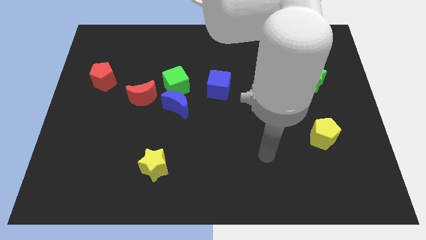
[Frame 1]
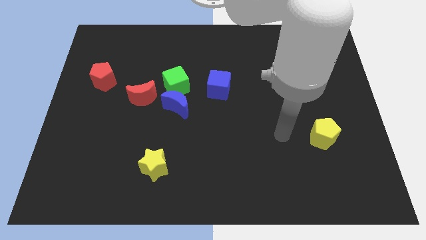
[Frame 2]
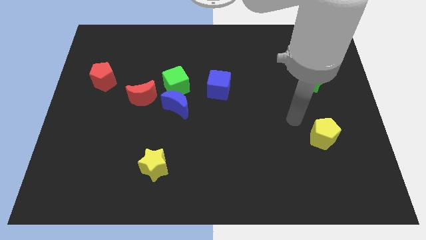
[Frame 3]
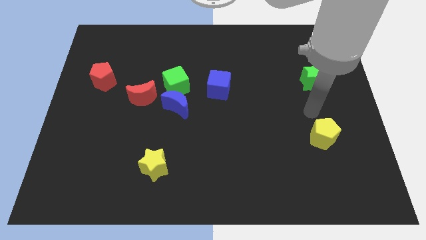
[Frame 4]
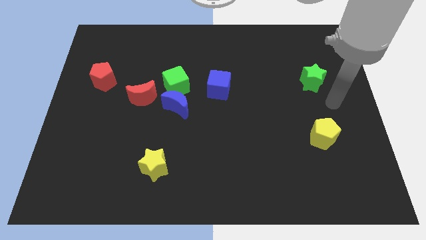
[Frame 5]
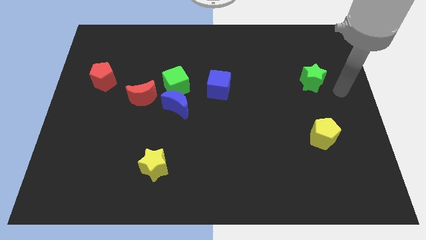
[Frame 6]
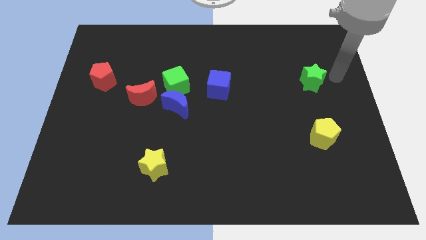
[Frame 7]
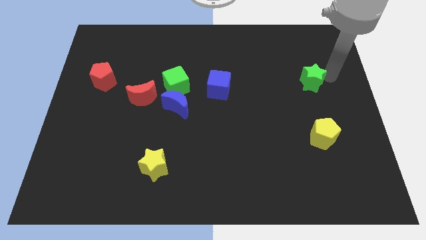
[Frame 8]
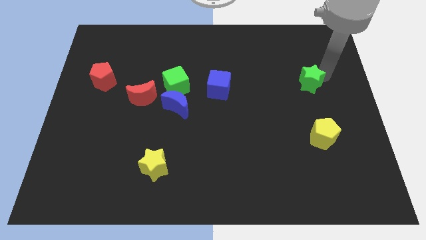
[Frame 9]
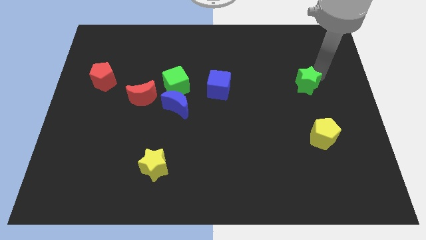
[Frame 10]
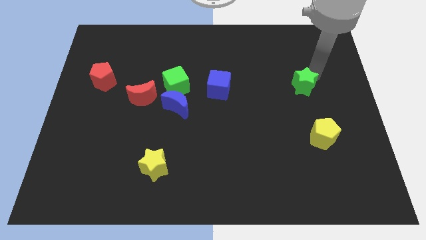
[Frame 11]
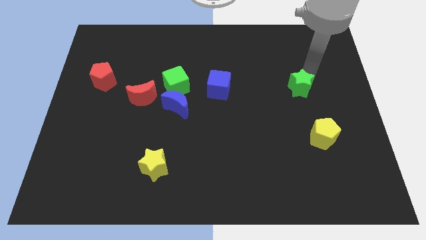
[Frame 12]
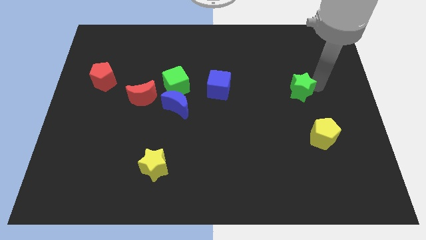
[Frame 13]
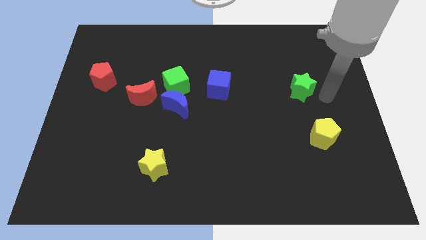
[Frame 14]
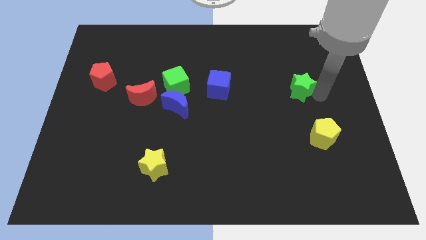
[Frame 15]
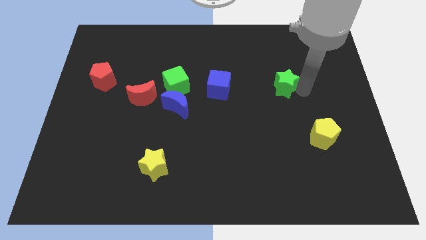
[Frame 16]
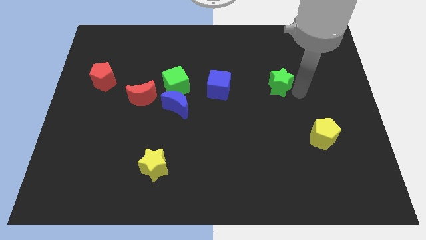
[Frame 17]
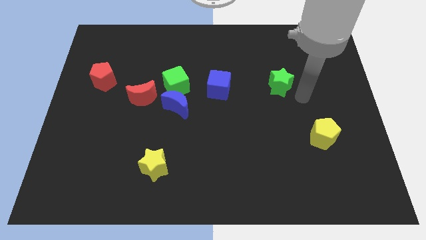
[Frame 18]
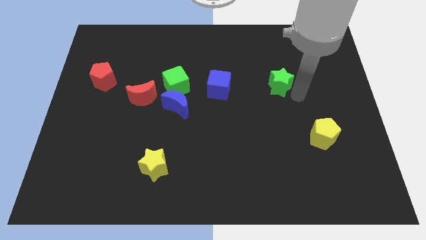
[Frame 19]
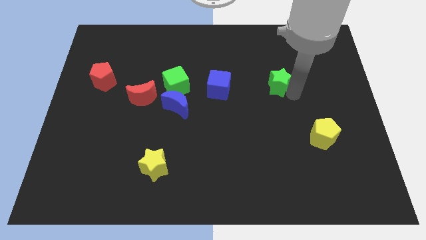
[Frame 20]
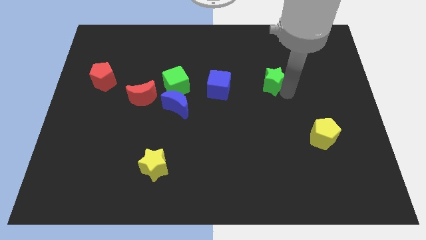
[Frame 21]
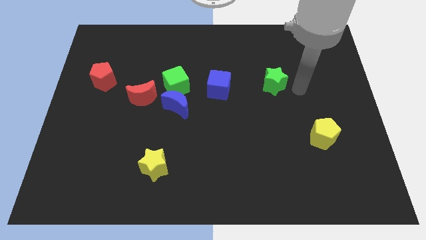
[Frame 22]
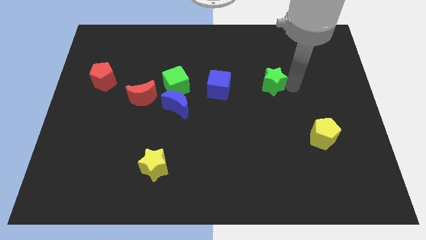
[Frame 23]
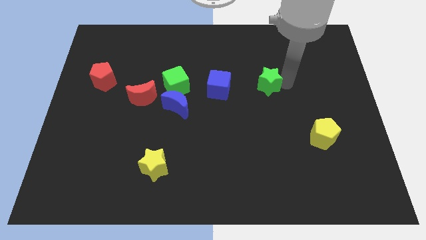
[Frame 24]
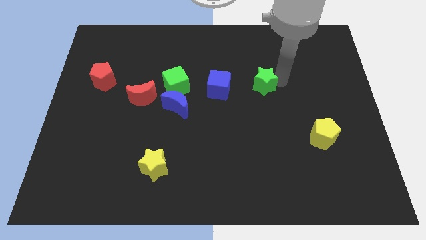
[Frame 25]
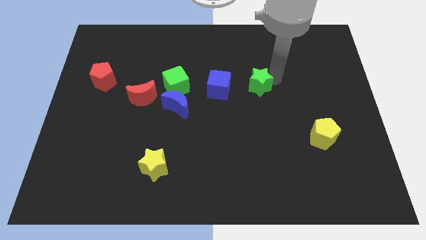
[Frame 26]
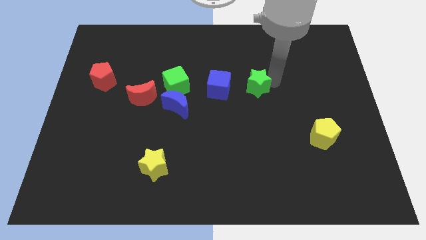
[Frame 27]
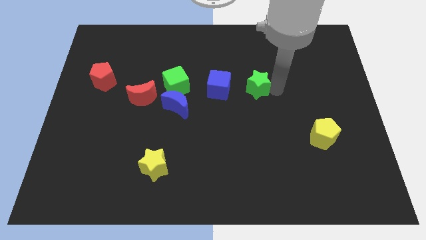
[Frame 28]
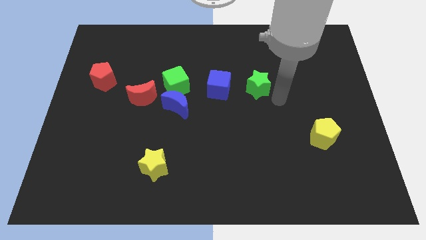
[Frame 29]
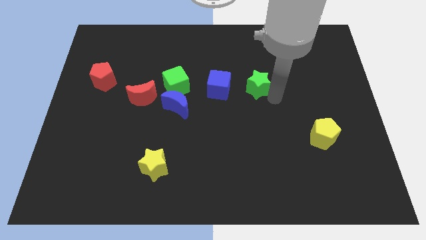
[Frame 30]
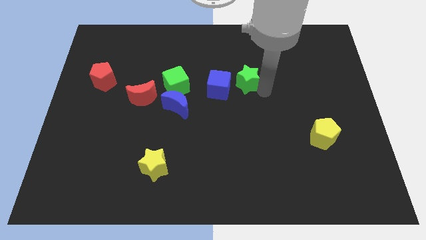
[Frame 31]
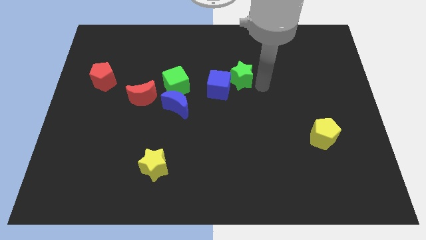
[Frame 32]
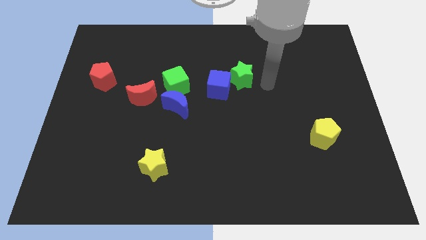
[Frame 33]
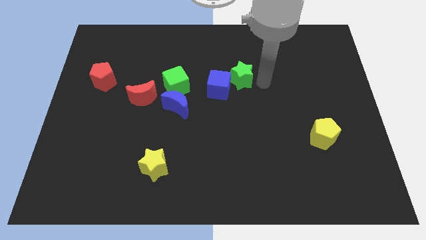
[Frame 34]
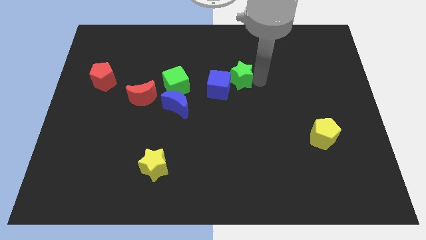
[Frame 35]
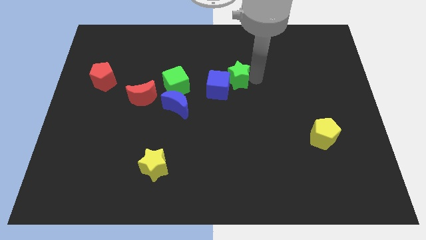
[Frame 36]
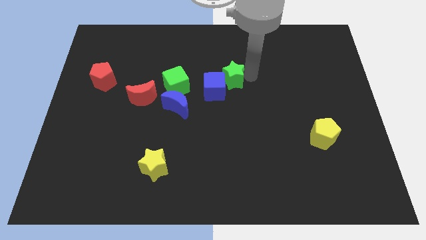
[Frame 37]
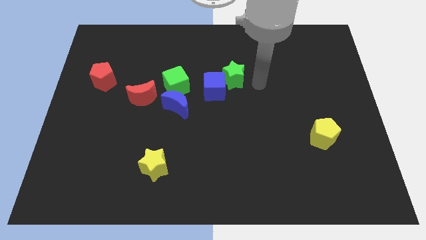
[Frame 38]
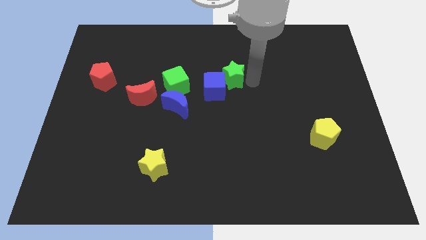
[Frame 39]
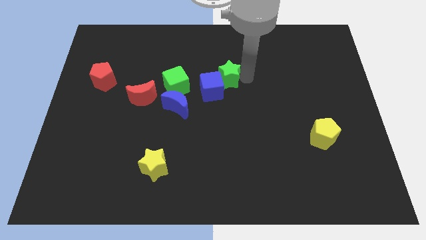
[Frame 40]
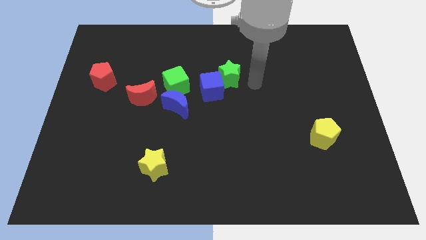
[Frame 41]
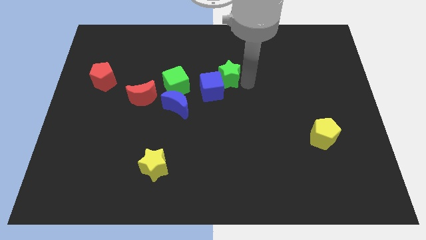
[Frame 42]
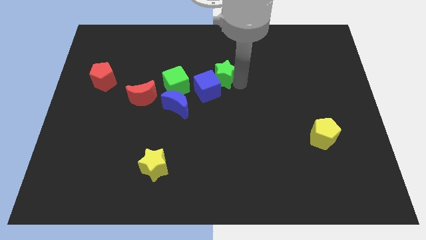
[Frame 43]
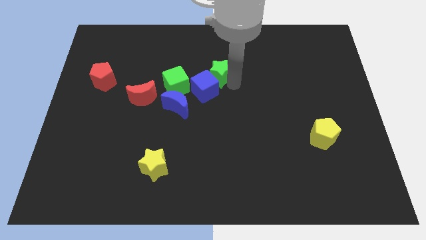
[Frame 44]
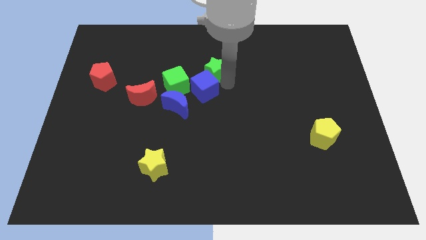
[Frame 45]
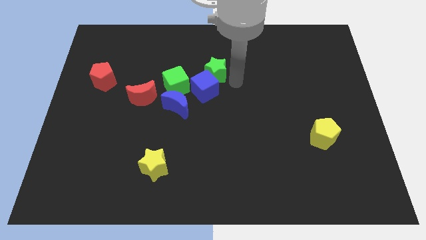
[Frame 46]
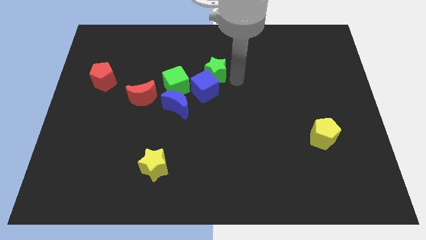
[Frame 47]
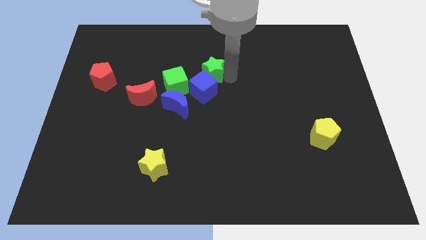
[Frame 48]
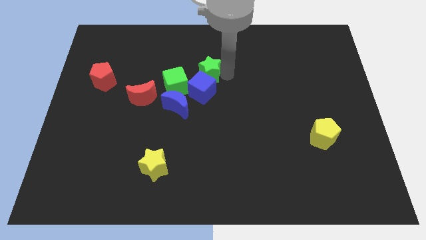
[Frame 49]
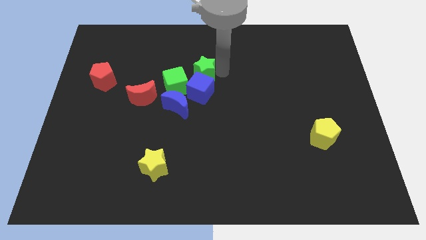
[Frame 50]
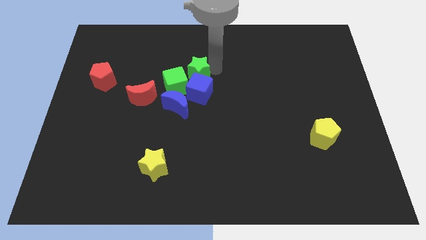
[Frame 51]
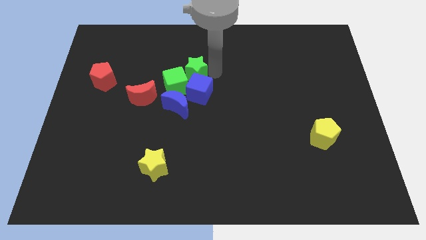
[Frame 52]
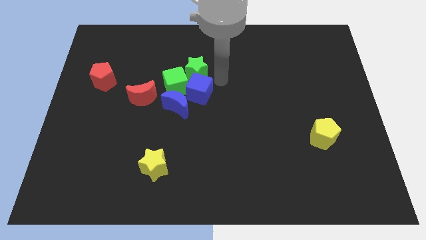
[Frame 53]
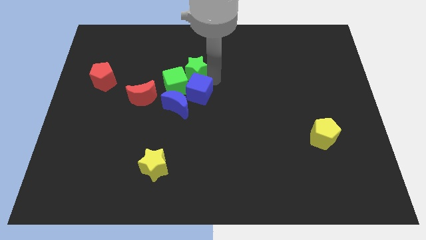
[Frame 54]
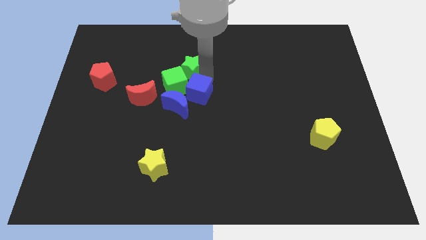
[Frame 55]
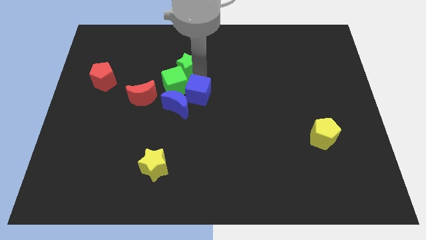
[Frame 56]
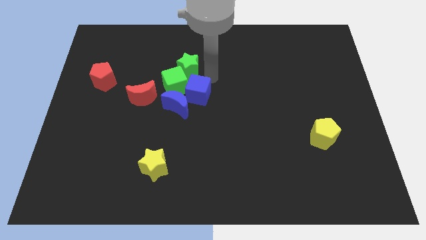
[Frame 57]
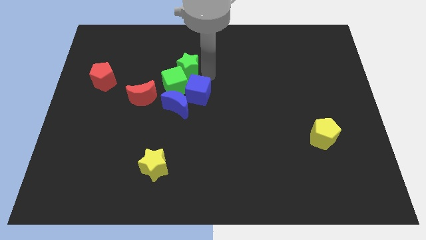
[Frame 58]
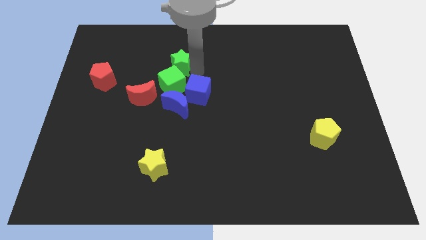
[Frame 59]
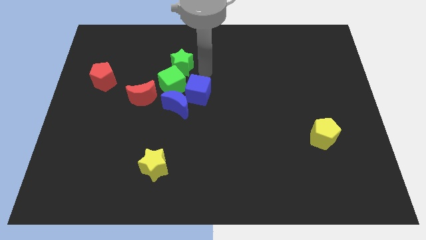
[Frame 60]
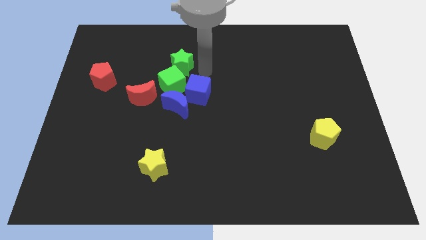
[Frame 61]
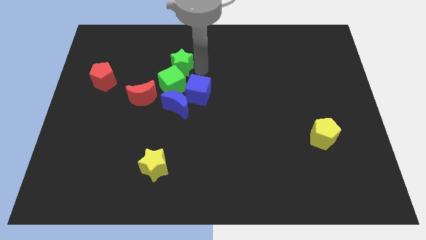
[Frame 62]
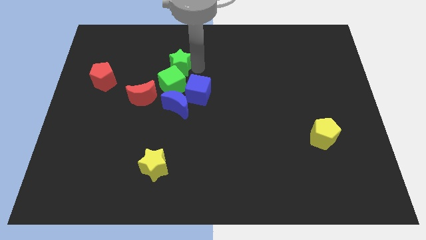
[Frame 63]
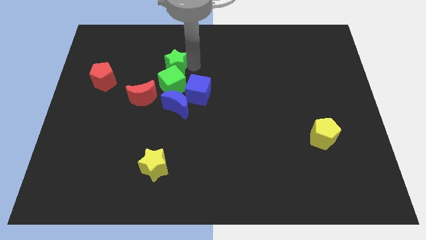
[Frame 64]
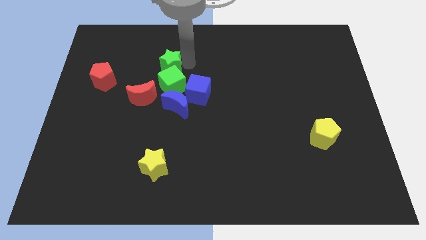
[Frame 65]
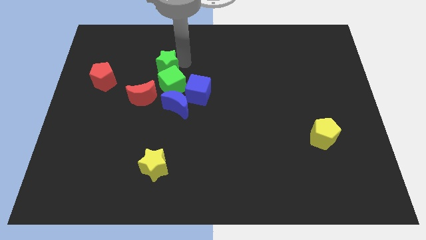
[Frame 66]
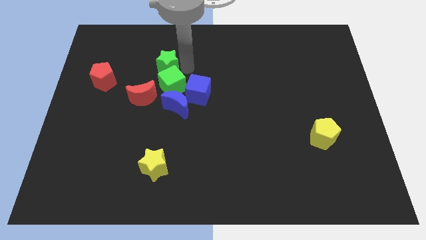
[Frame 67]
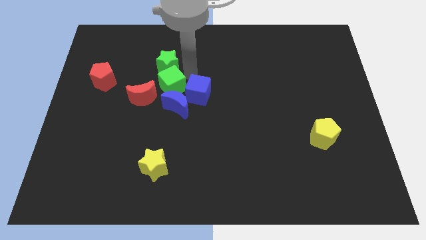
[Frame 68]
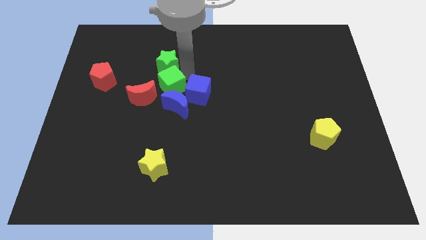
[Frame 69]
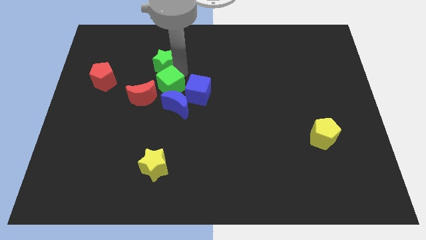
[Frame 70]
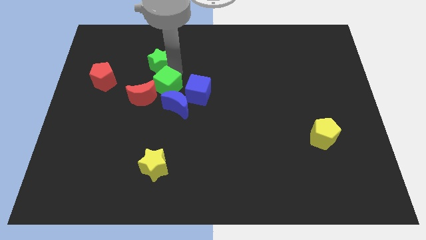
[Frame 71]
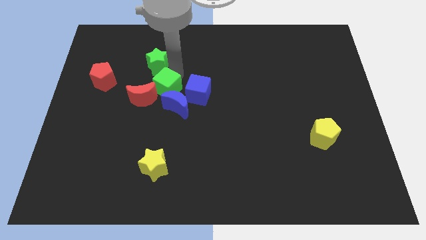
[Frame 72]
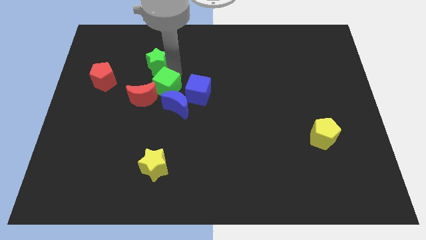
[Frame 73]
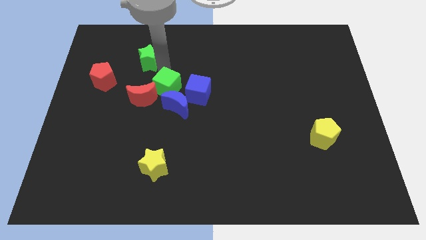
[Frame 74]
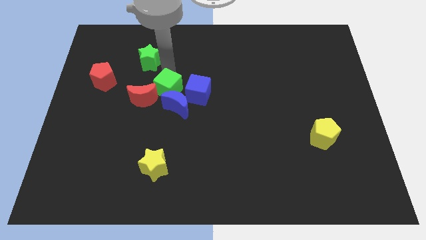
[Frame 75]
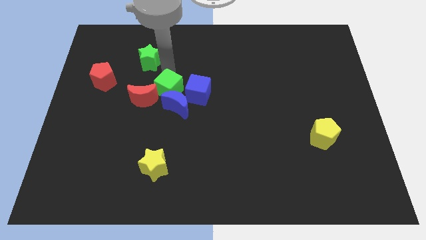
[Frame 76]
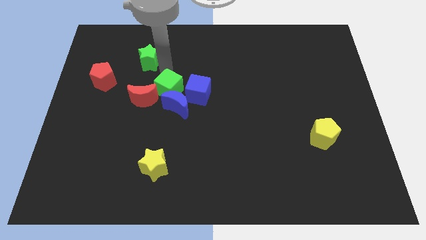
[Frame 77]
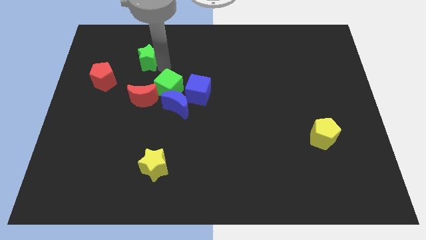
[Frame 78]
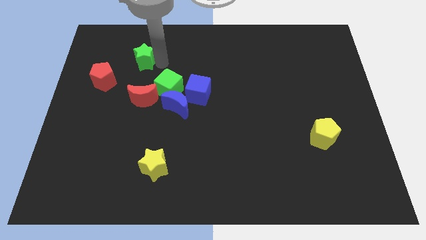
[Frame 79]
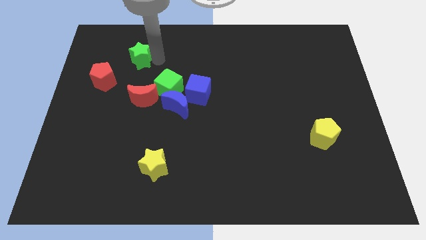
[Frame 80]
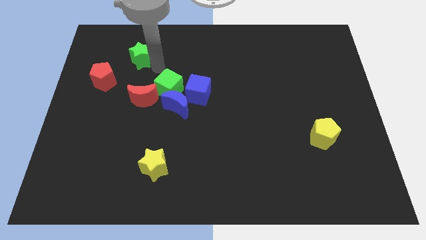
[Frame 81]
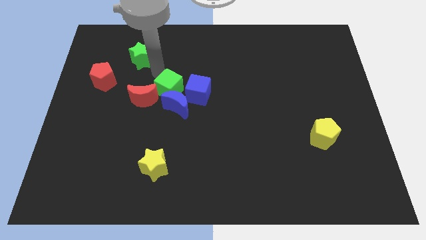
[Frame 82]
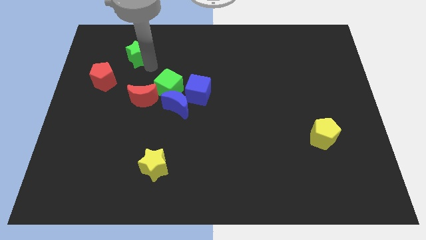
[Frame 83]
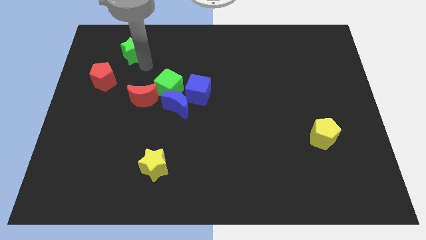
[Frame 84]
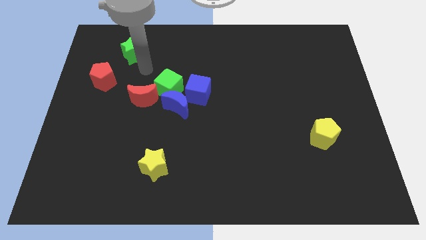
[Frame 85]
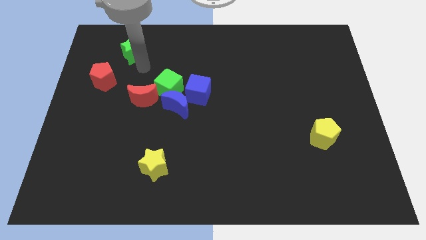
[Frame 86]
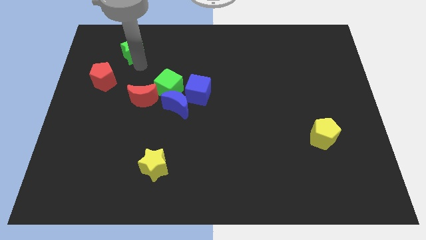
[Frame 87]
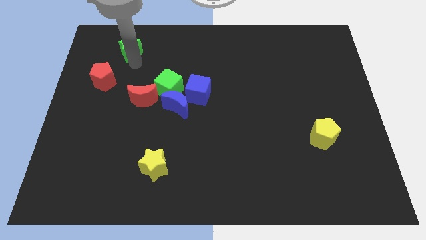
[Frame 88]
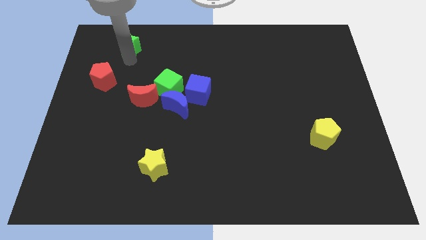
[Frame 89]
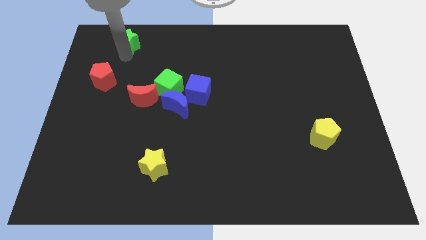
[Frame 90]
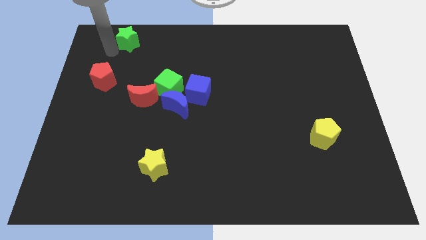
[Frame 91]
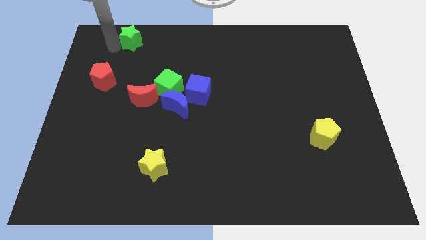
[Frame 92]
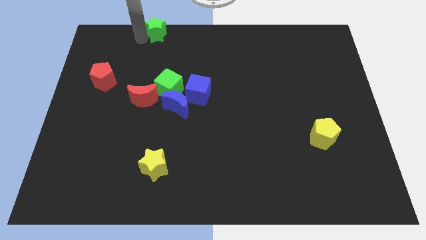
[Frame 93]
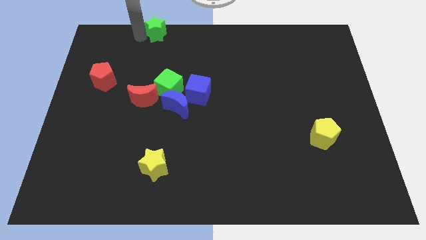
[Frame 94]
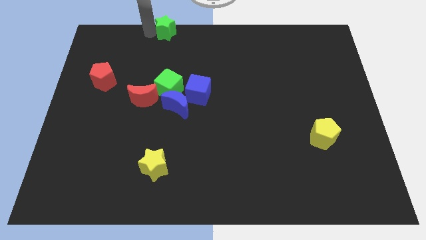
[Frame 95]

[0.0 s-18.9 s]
slide the green star to the top
